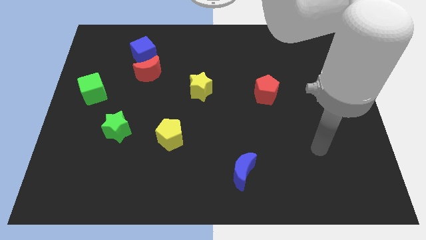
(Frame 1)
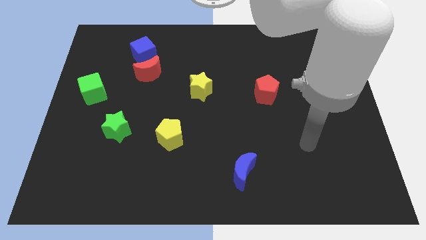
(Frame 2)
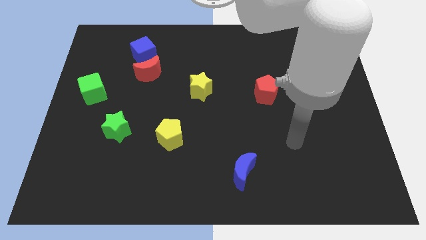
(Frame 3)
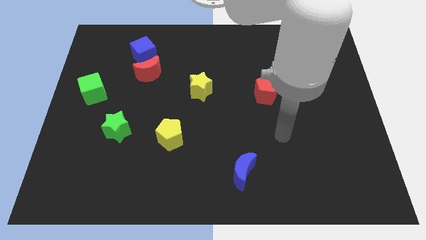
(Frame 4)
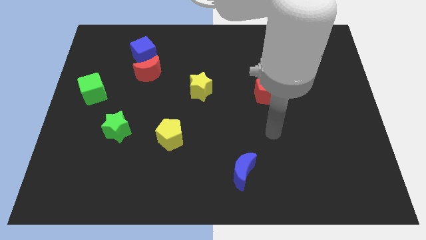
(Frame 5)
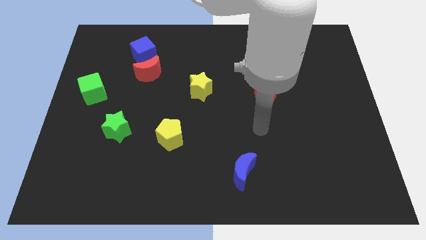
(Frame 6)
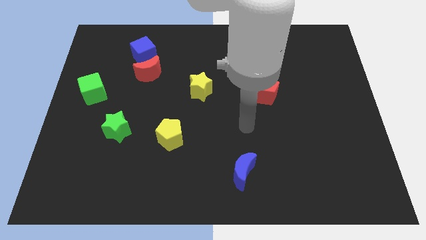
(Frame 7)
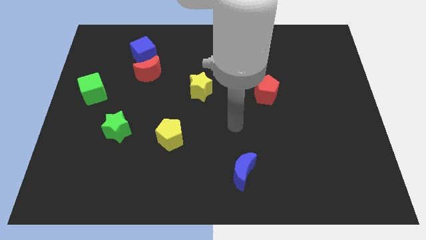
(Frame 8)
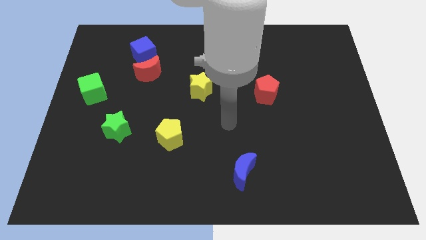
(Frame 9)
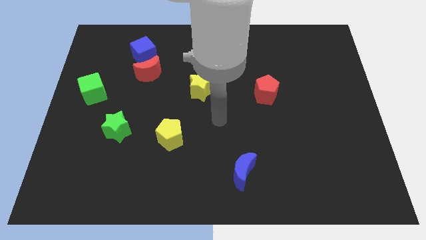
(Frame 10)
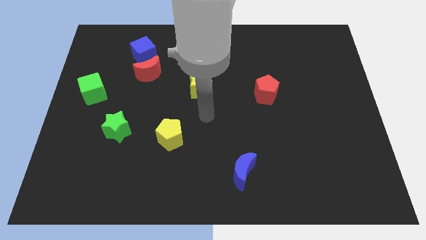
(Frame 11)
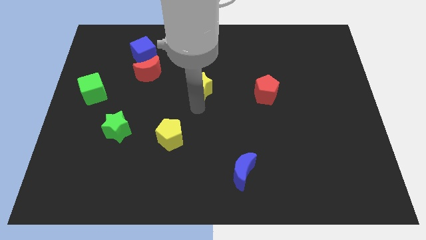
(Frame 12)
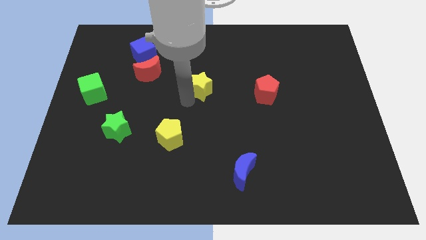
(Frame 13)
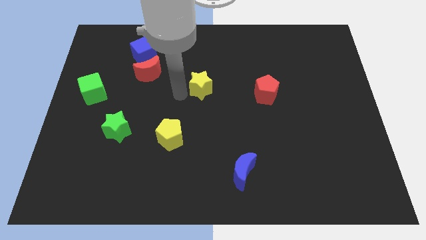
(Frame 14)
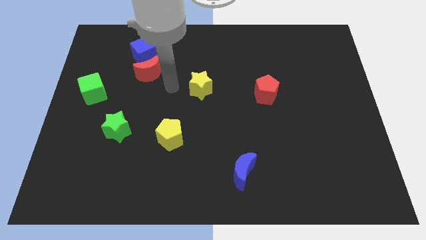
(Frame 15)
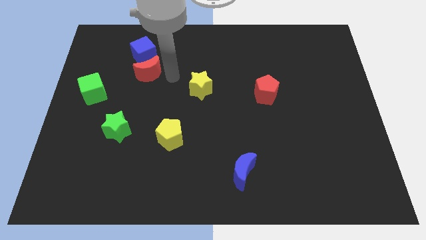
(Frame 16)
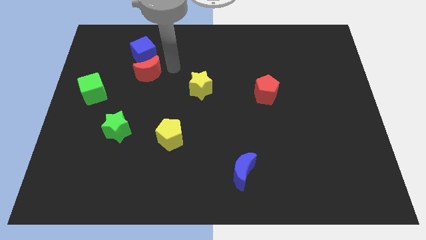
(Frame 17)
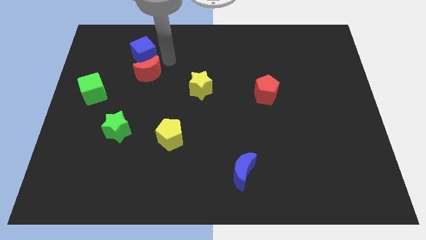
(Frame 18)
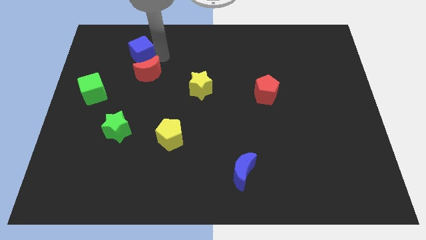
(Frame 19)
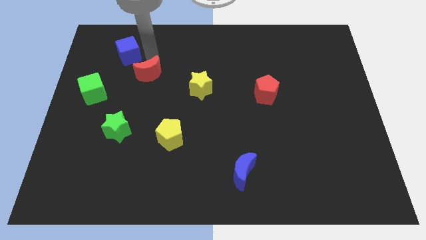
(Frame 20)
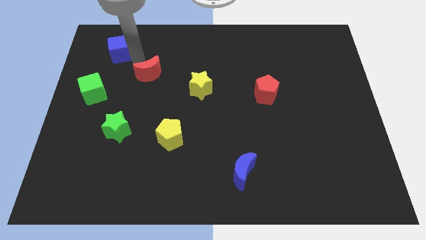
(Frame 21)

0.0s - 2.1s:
pull the red moon apart from the blue cube

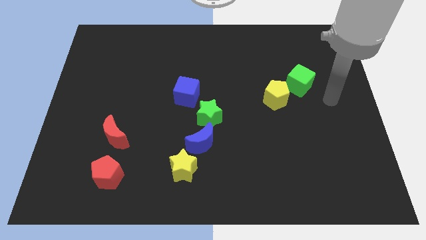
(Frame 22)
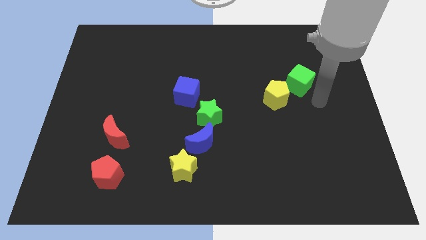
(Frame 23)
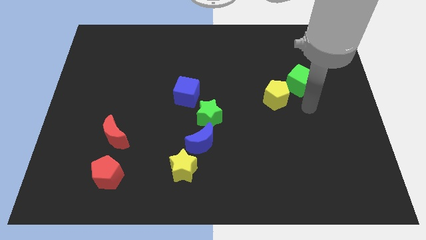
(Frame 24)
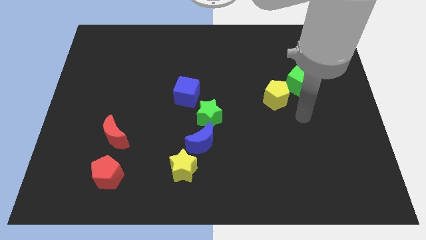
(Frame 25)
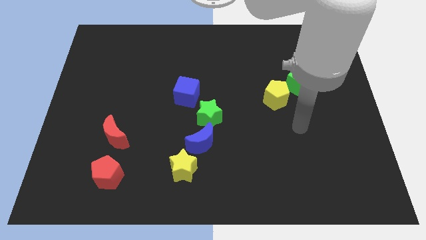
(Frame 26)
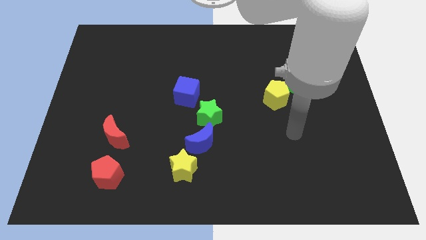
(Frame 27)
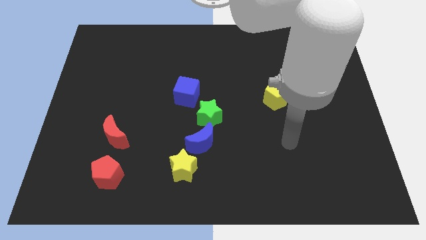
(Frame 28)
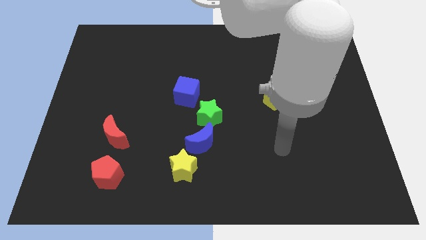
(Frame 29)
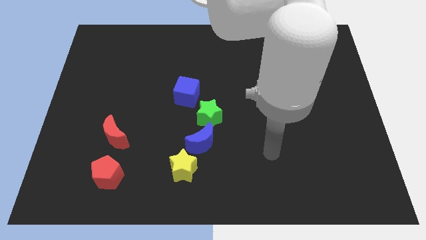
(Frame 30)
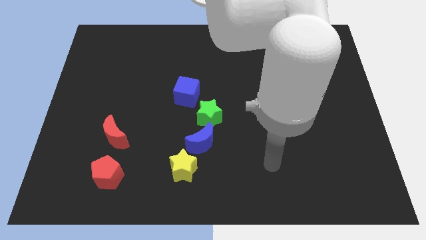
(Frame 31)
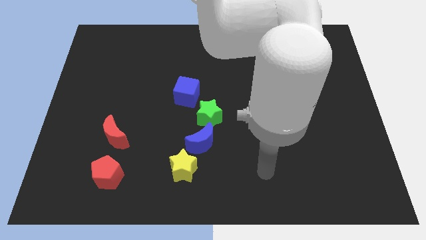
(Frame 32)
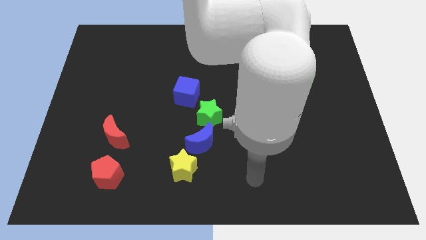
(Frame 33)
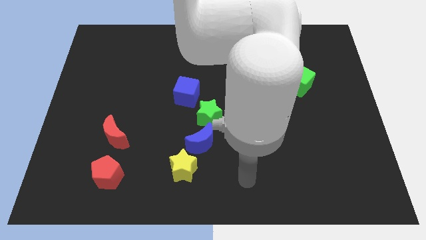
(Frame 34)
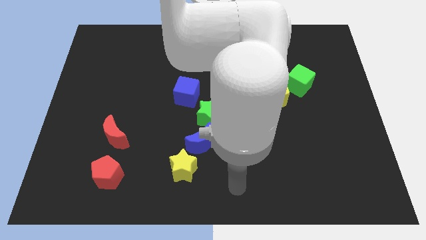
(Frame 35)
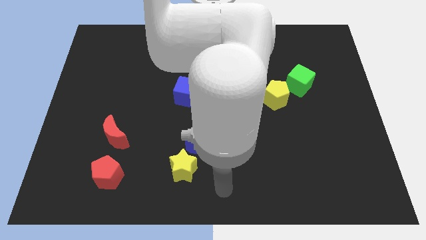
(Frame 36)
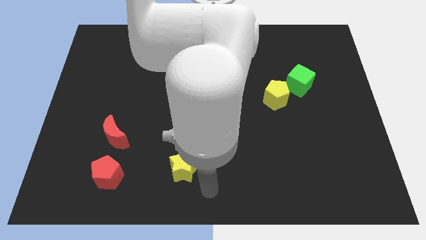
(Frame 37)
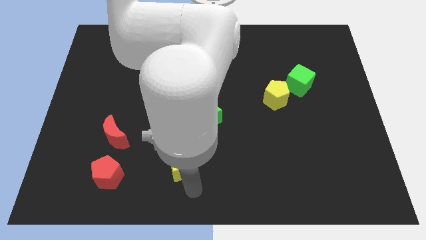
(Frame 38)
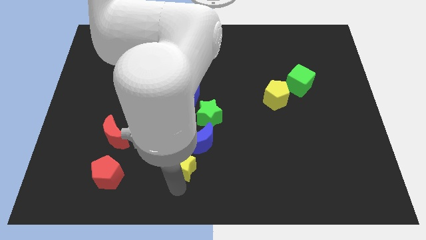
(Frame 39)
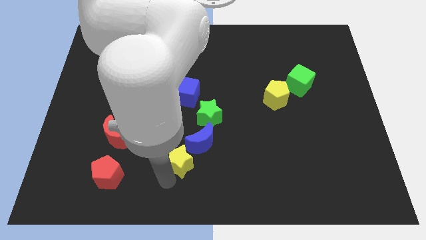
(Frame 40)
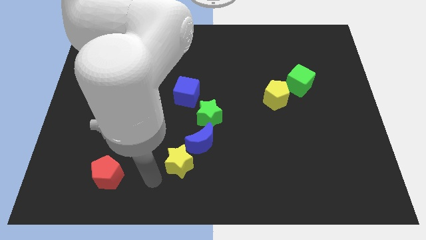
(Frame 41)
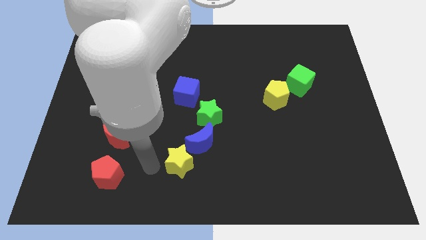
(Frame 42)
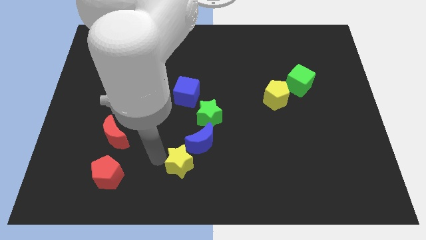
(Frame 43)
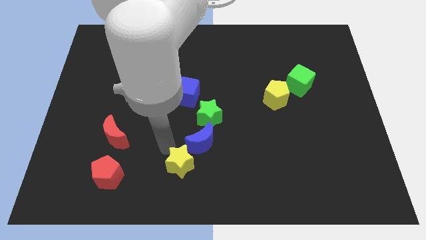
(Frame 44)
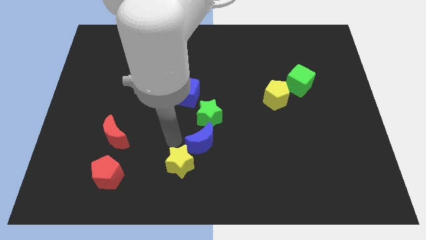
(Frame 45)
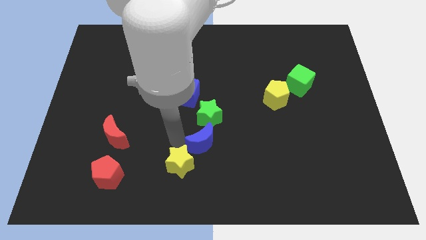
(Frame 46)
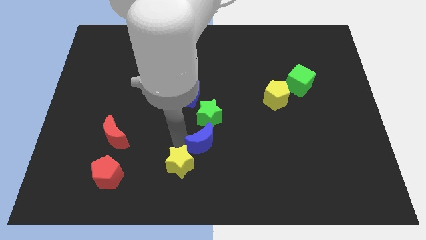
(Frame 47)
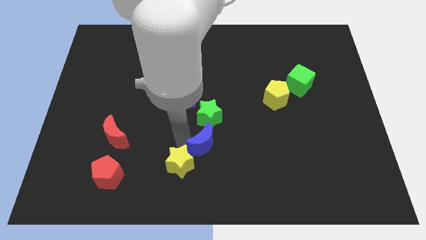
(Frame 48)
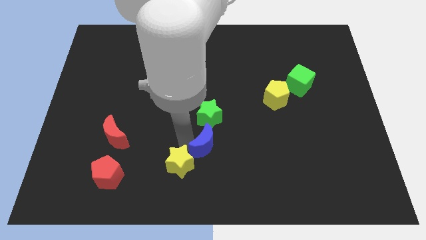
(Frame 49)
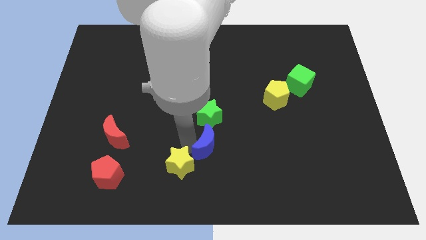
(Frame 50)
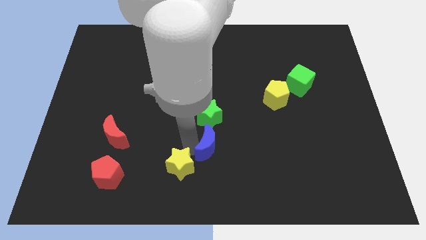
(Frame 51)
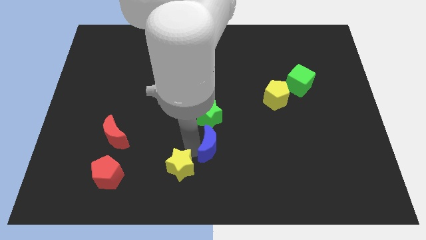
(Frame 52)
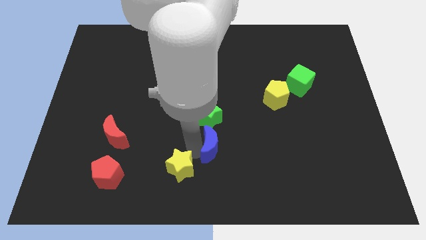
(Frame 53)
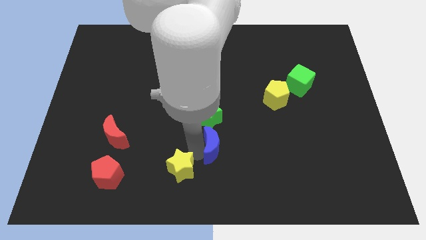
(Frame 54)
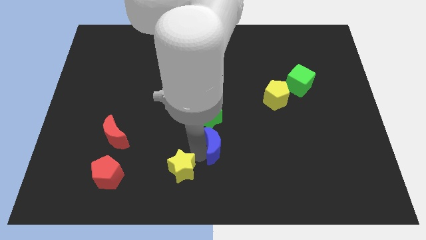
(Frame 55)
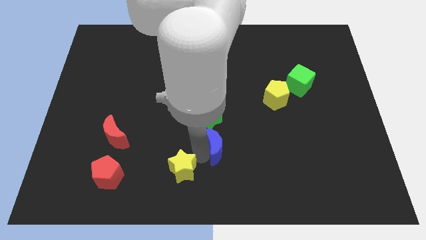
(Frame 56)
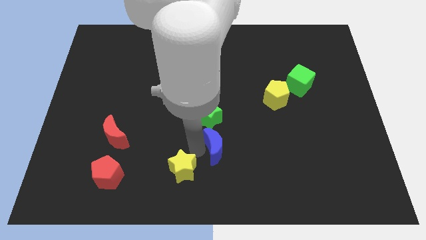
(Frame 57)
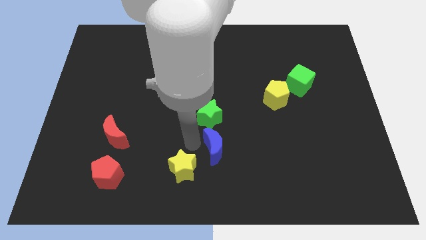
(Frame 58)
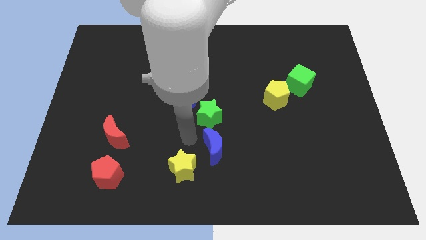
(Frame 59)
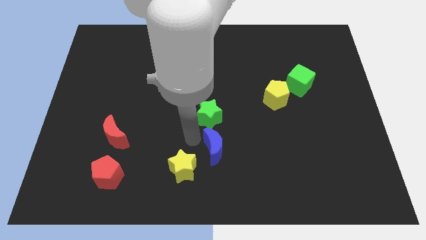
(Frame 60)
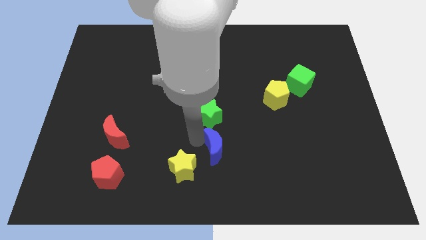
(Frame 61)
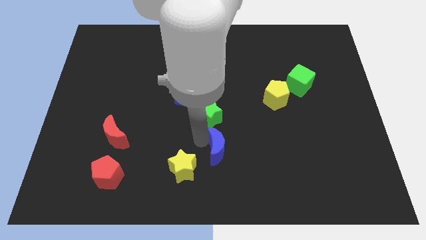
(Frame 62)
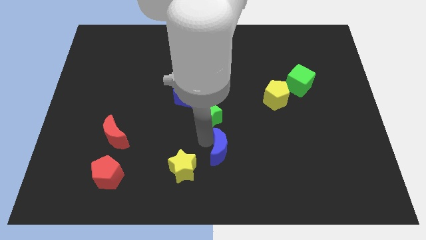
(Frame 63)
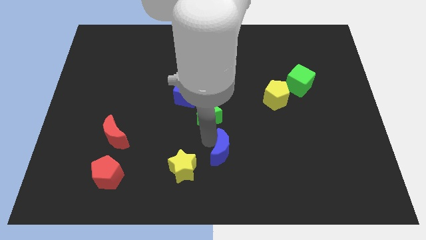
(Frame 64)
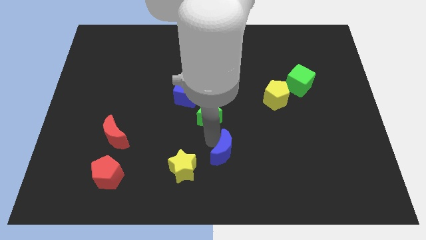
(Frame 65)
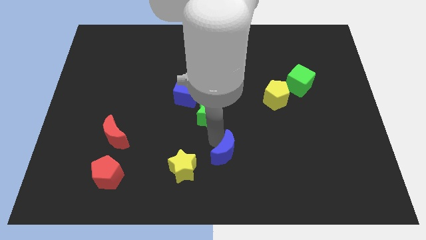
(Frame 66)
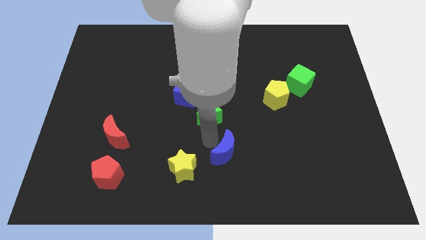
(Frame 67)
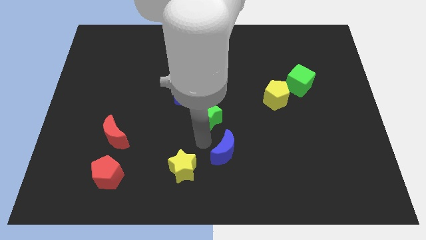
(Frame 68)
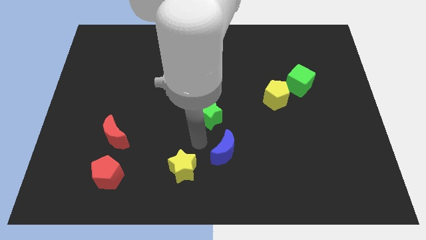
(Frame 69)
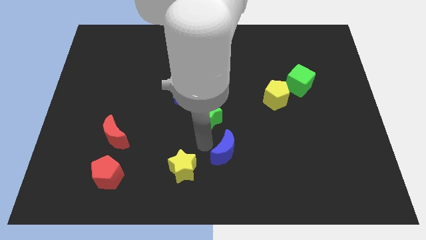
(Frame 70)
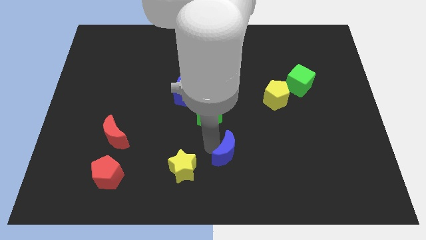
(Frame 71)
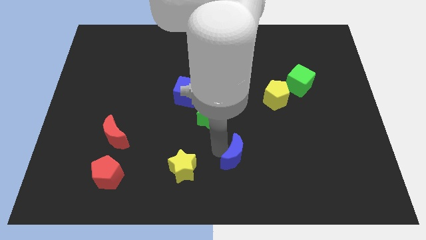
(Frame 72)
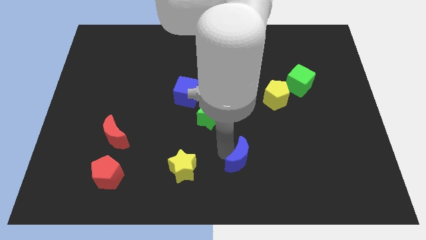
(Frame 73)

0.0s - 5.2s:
pull the blue moon apart from the green star and yellow star

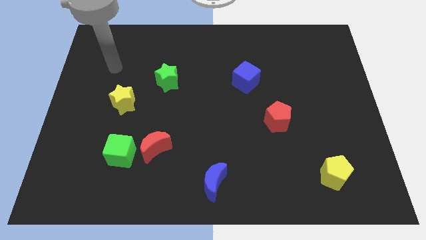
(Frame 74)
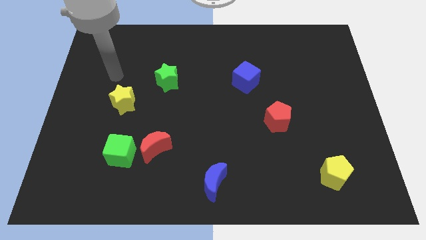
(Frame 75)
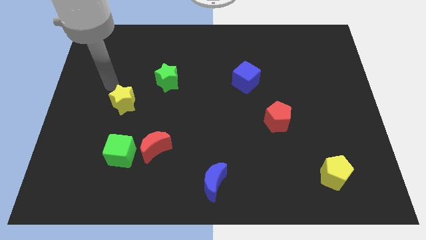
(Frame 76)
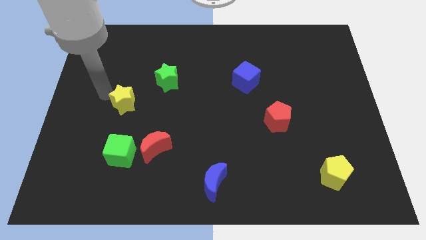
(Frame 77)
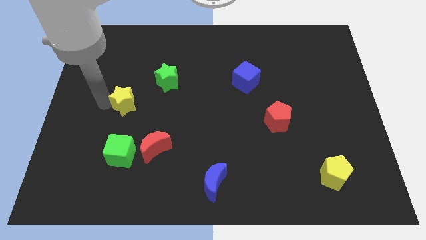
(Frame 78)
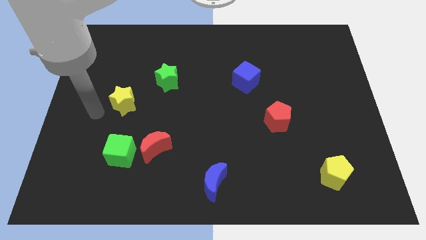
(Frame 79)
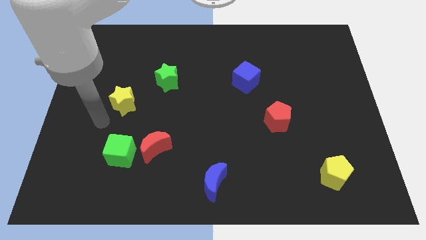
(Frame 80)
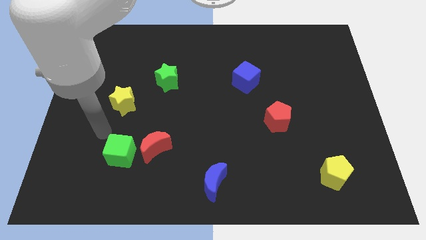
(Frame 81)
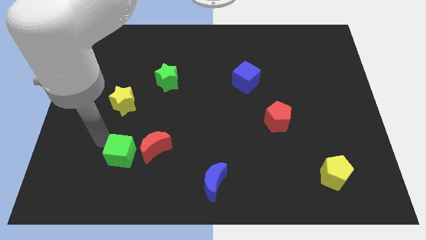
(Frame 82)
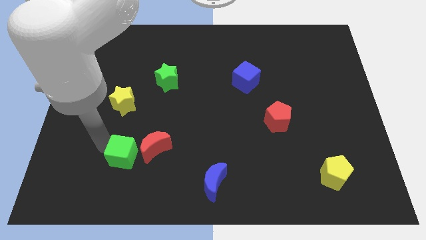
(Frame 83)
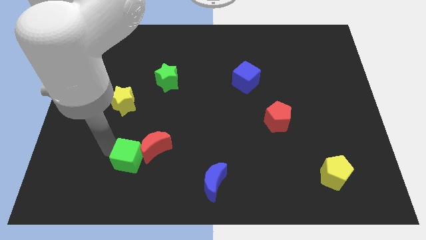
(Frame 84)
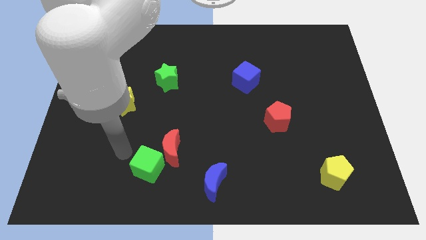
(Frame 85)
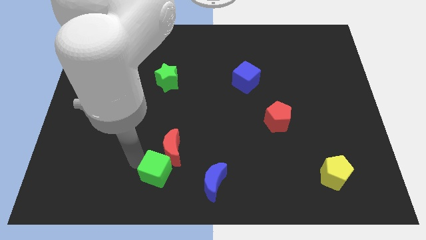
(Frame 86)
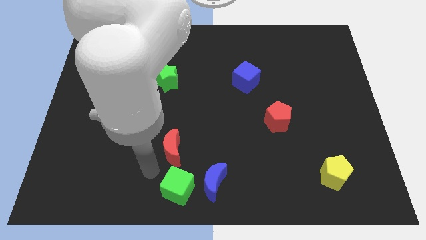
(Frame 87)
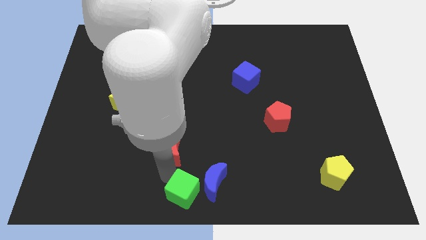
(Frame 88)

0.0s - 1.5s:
pull the red moon apart from the green cube

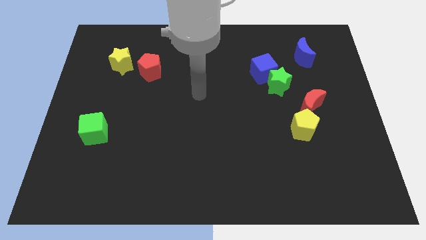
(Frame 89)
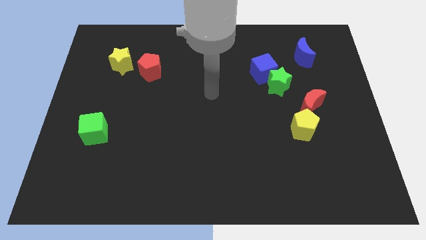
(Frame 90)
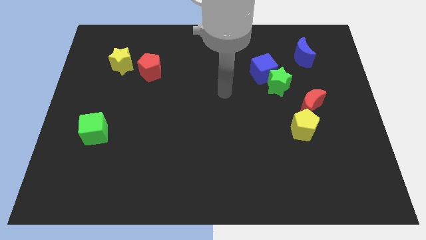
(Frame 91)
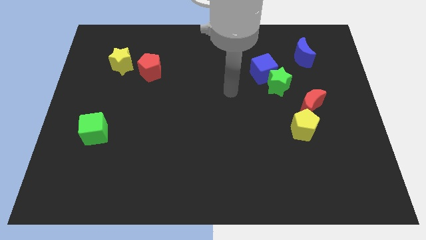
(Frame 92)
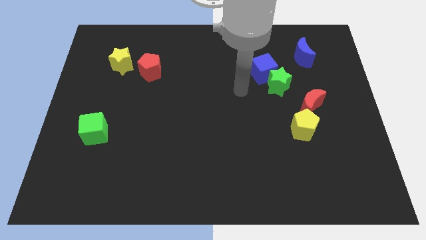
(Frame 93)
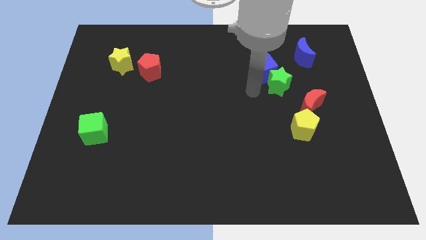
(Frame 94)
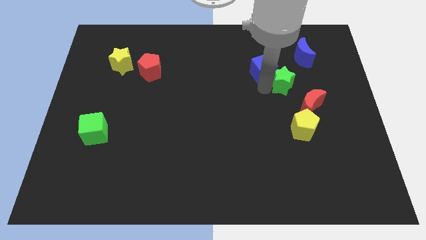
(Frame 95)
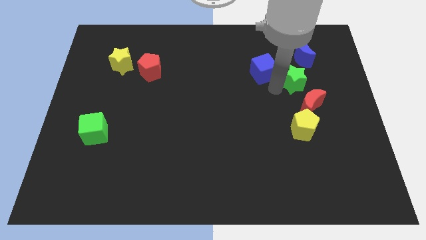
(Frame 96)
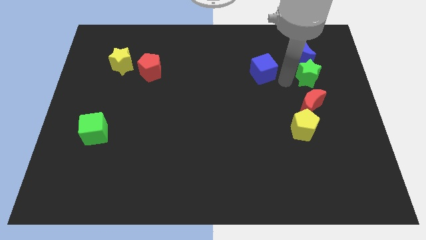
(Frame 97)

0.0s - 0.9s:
separate the blue cube from the green star
